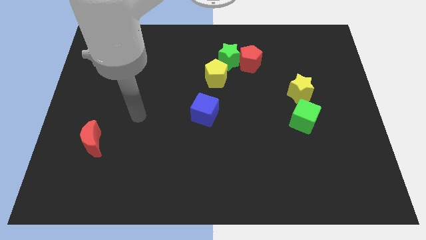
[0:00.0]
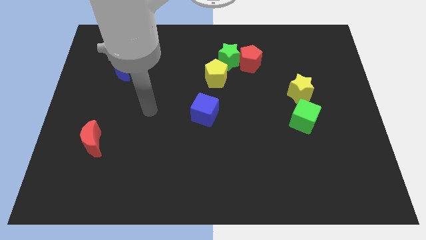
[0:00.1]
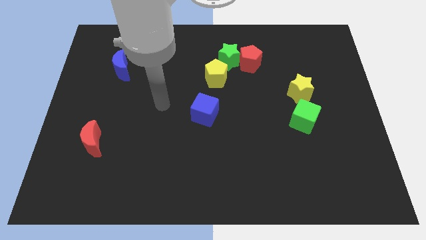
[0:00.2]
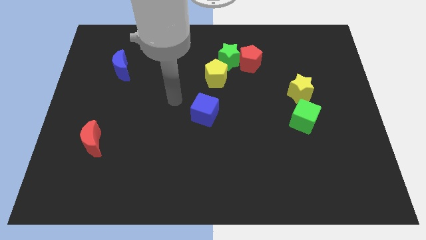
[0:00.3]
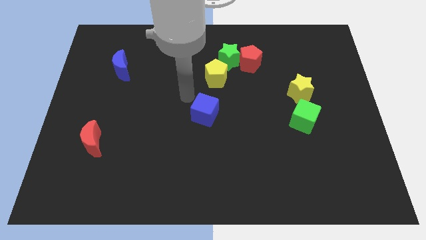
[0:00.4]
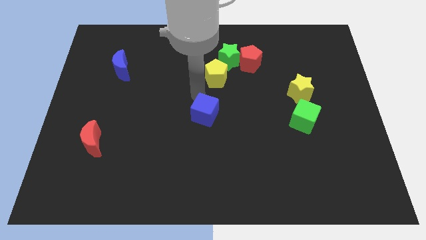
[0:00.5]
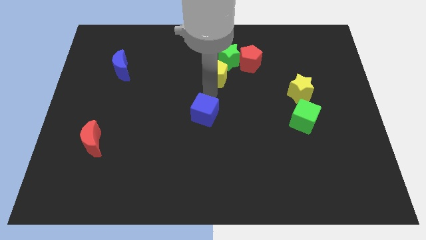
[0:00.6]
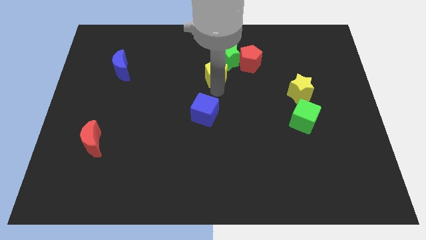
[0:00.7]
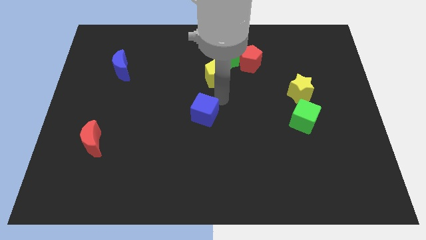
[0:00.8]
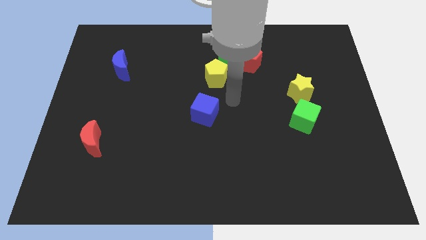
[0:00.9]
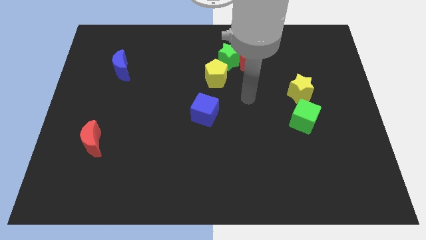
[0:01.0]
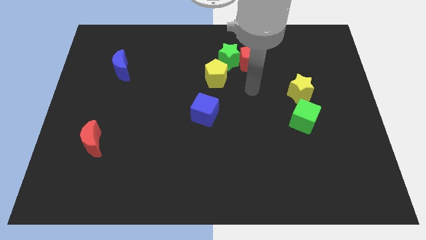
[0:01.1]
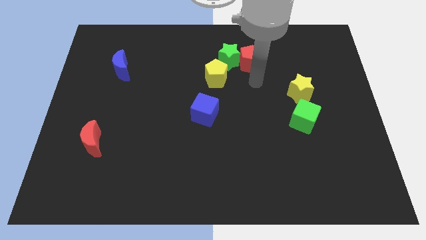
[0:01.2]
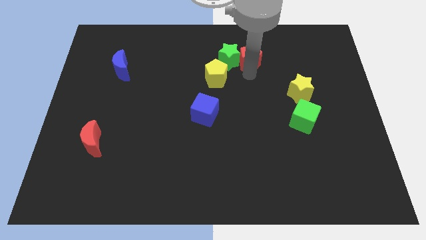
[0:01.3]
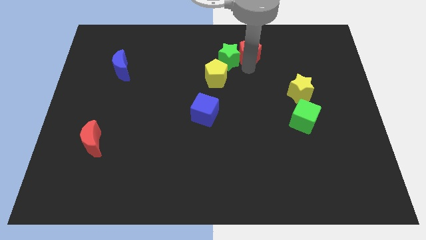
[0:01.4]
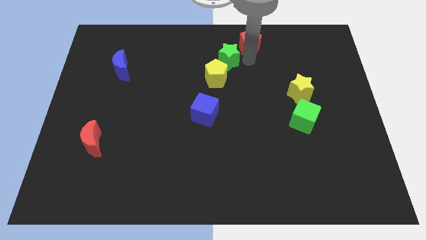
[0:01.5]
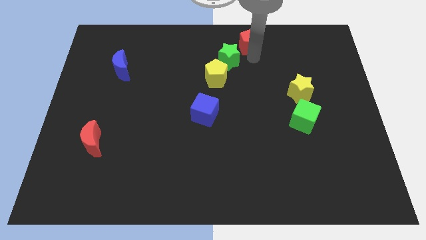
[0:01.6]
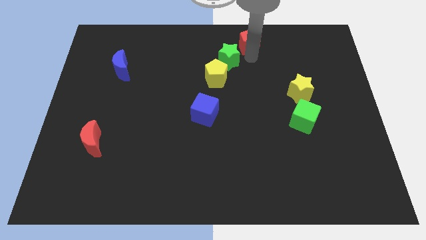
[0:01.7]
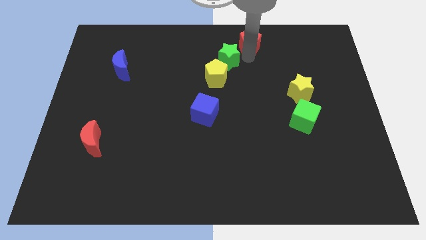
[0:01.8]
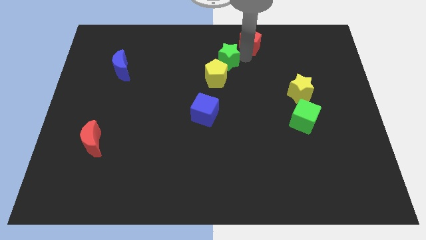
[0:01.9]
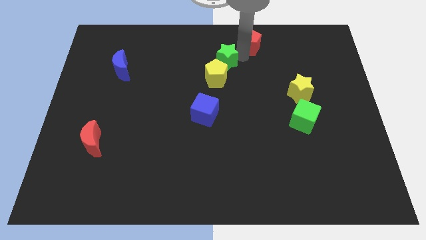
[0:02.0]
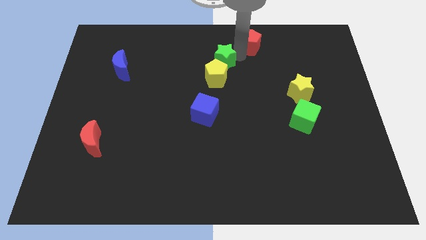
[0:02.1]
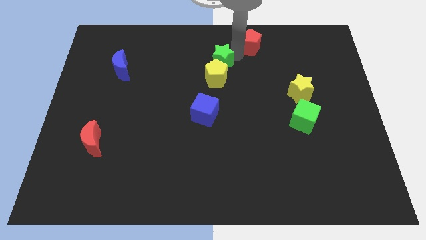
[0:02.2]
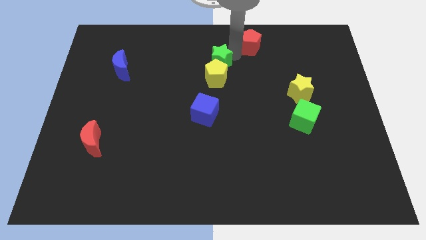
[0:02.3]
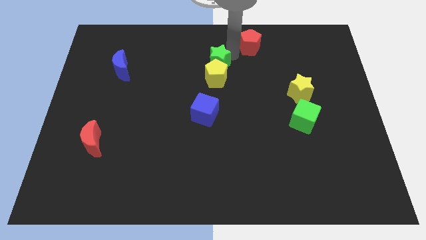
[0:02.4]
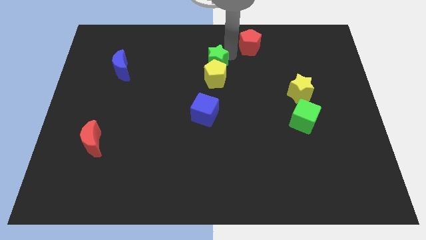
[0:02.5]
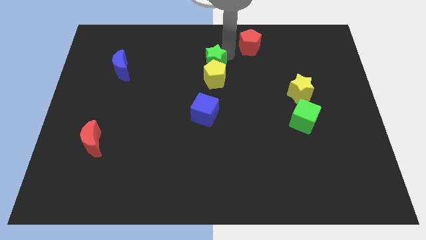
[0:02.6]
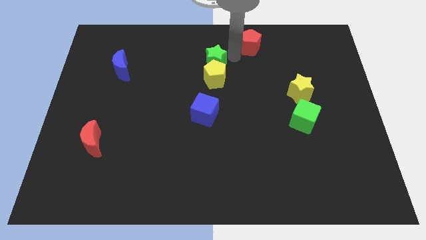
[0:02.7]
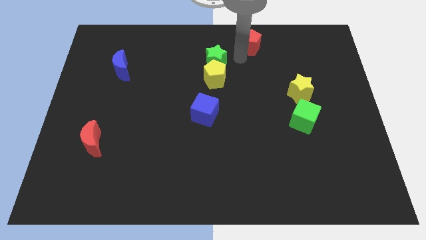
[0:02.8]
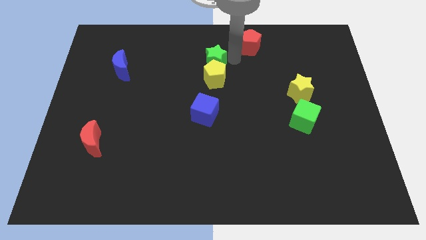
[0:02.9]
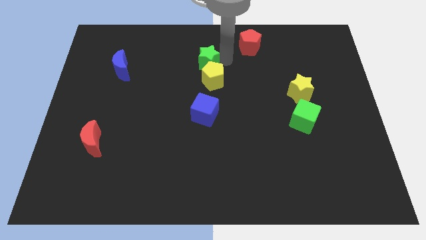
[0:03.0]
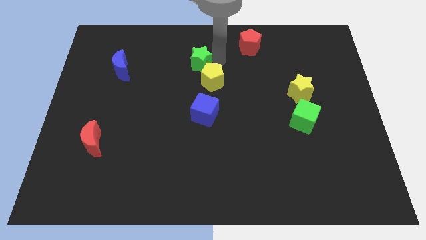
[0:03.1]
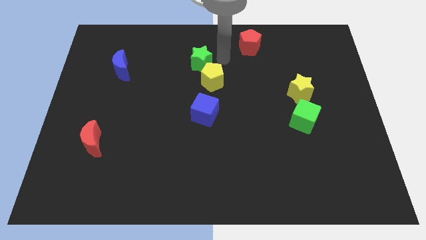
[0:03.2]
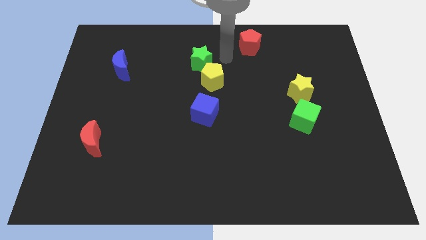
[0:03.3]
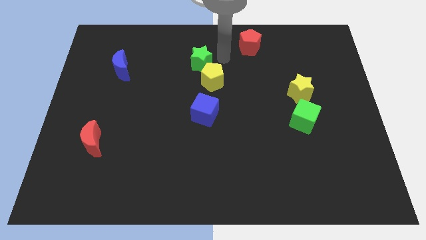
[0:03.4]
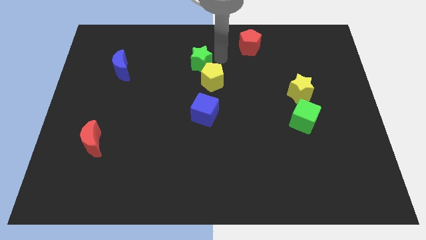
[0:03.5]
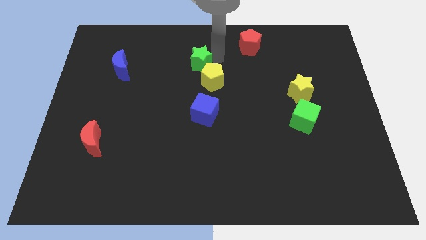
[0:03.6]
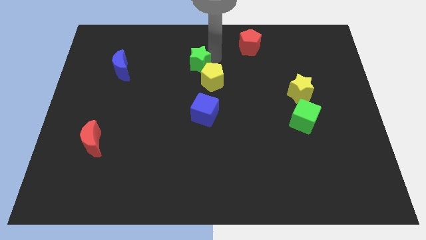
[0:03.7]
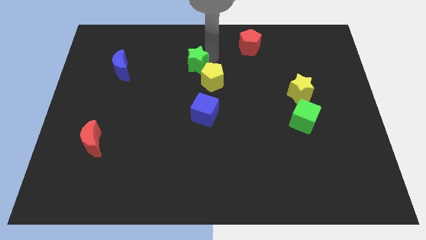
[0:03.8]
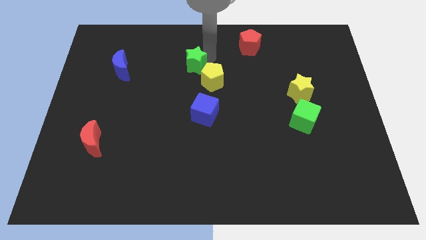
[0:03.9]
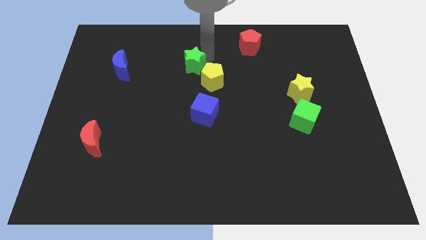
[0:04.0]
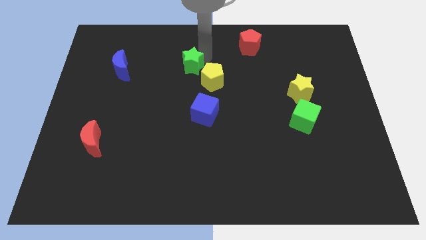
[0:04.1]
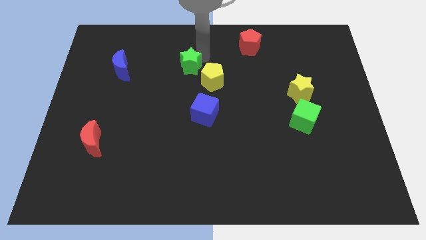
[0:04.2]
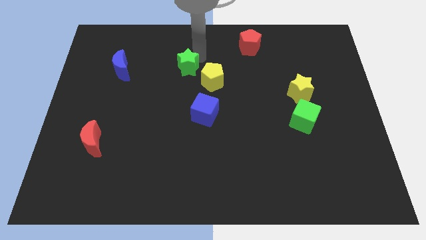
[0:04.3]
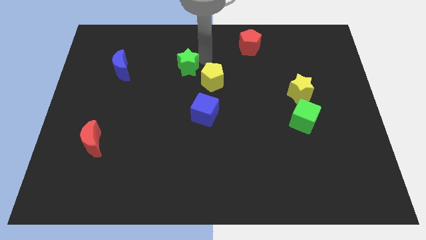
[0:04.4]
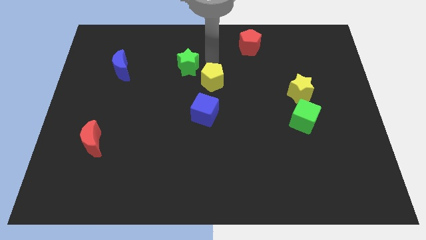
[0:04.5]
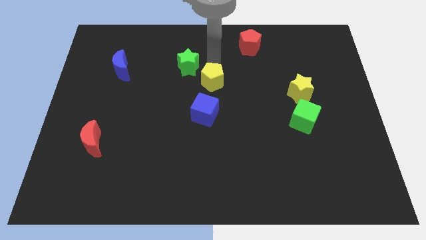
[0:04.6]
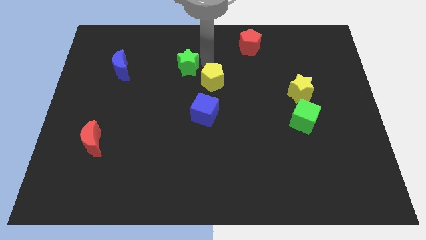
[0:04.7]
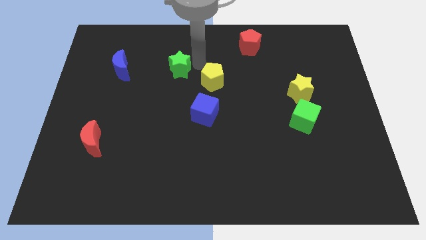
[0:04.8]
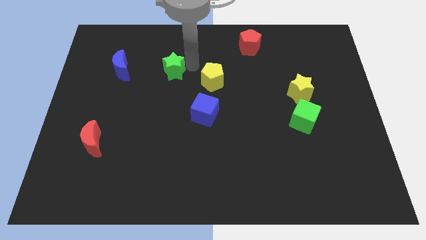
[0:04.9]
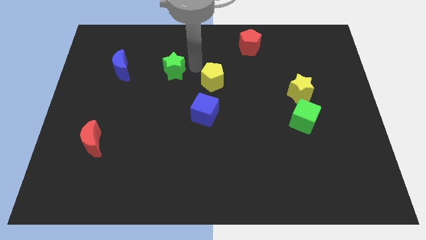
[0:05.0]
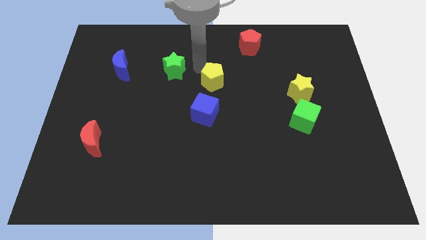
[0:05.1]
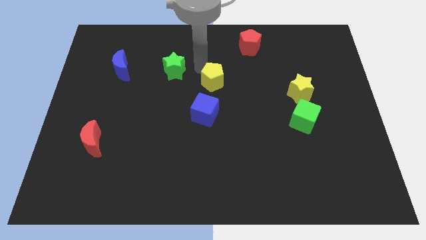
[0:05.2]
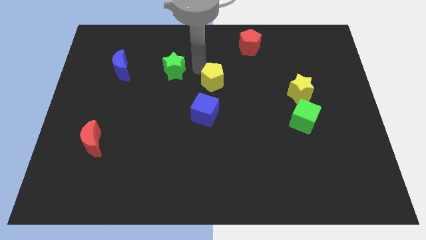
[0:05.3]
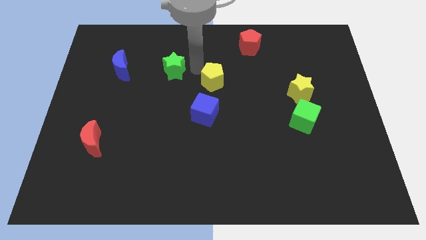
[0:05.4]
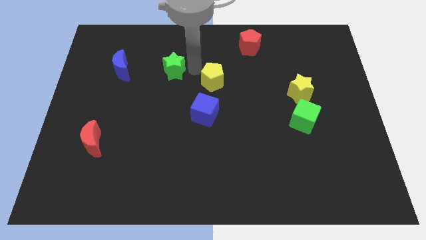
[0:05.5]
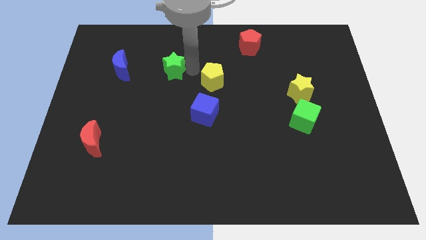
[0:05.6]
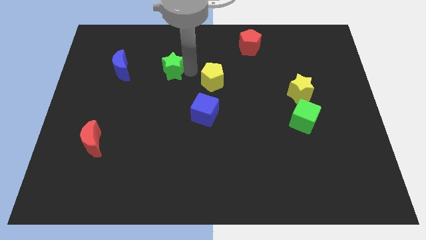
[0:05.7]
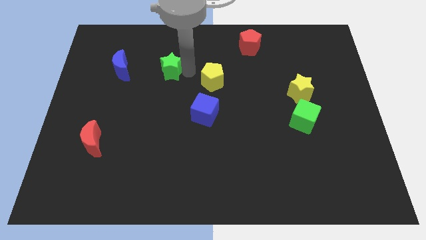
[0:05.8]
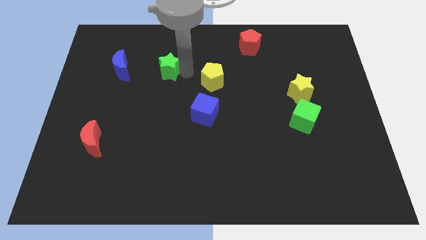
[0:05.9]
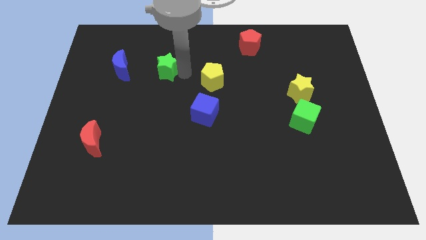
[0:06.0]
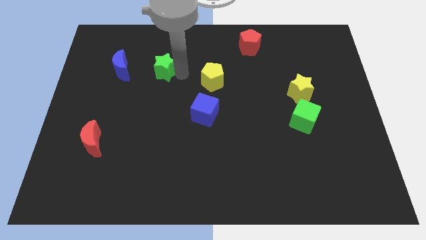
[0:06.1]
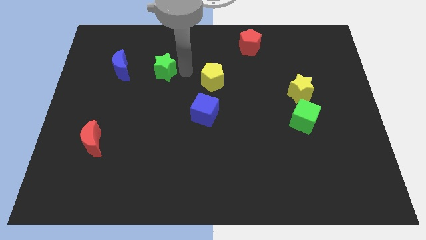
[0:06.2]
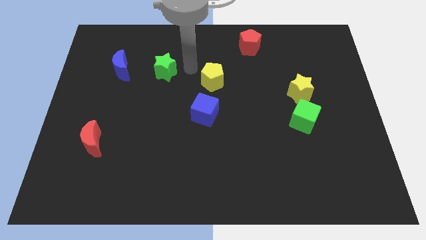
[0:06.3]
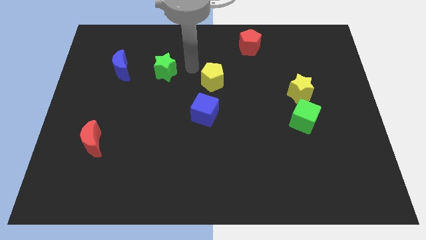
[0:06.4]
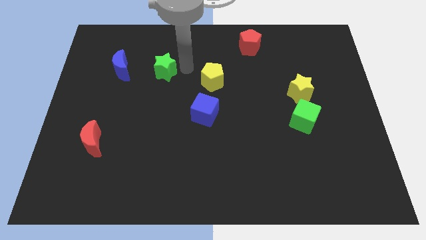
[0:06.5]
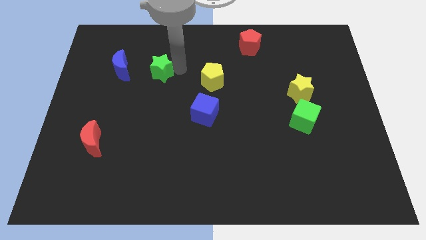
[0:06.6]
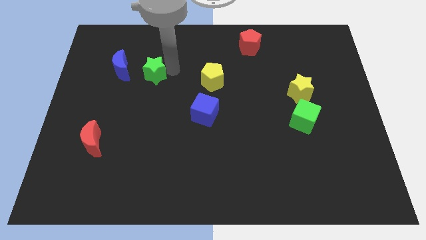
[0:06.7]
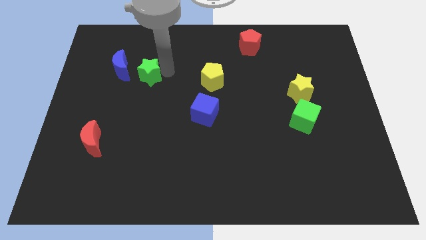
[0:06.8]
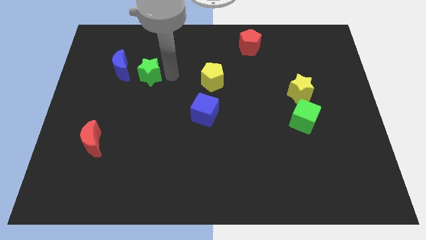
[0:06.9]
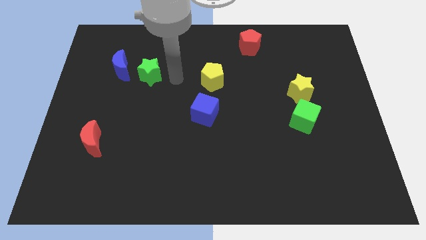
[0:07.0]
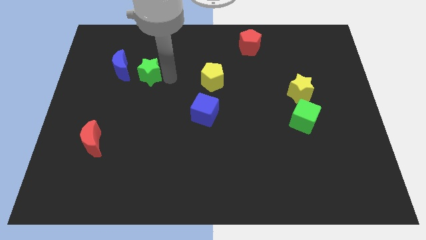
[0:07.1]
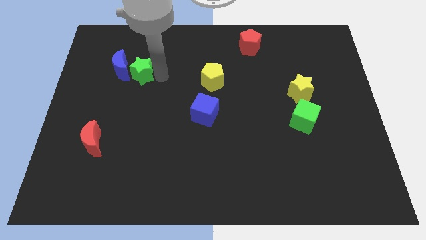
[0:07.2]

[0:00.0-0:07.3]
move the green star next to the blue moon
